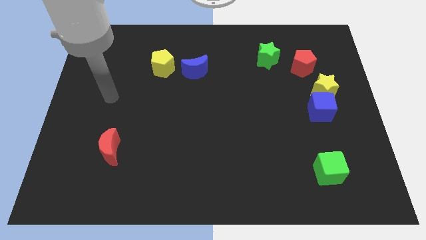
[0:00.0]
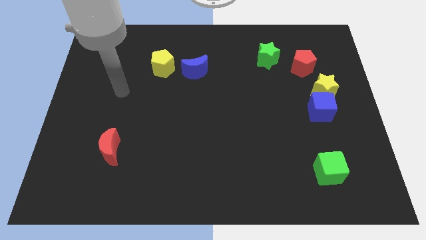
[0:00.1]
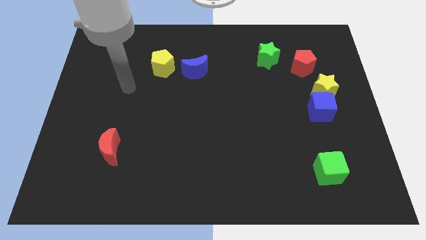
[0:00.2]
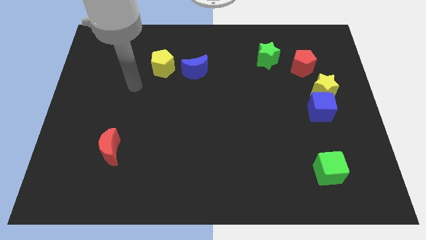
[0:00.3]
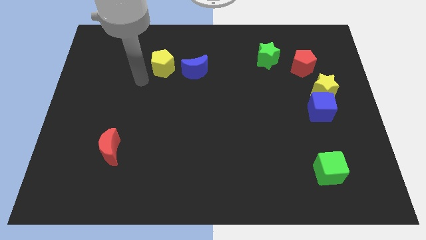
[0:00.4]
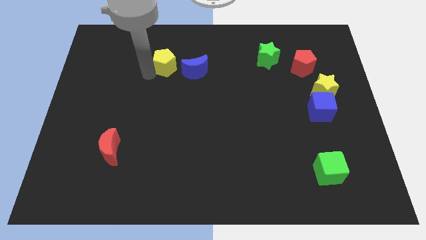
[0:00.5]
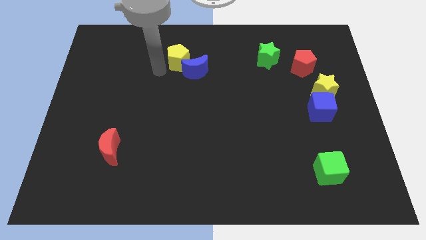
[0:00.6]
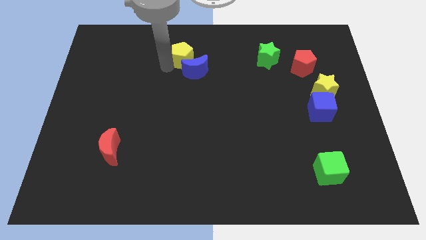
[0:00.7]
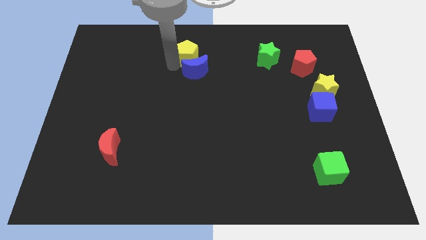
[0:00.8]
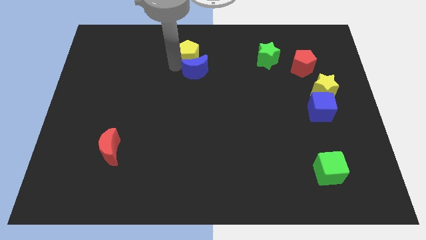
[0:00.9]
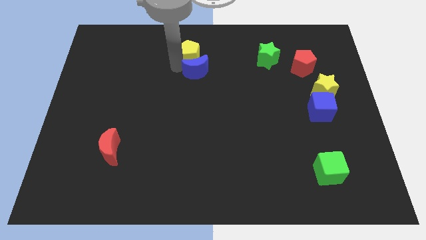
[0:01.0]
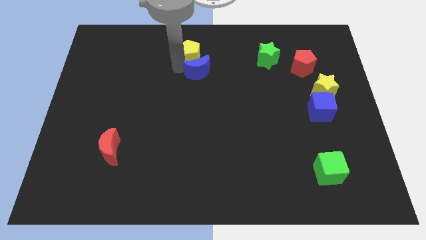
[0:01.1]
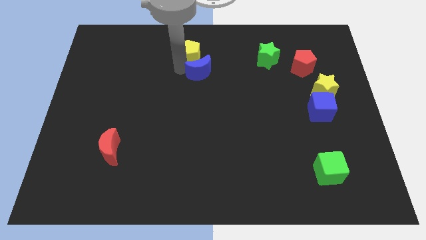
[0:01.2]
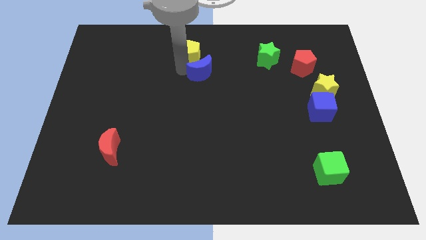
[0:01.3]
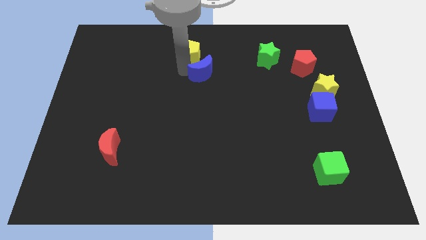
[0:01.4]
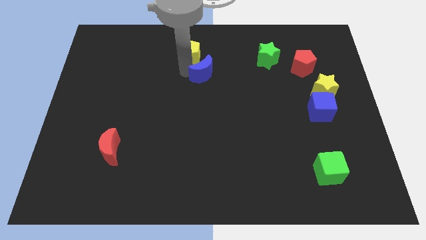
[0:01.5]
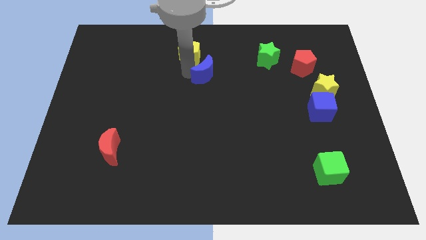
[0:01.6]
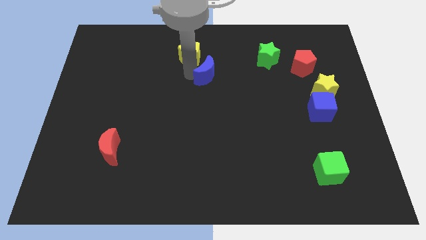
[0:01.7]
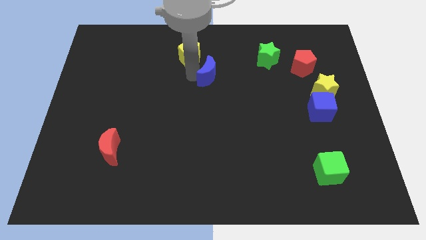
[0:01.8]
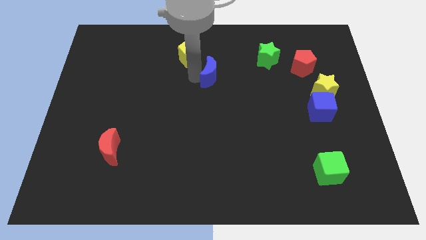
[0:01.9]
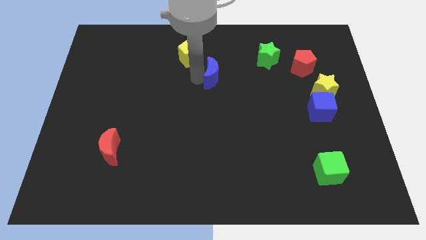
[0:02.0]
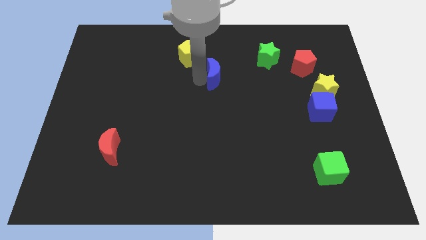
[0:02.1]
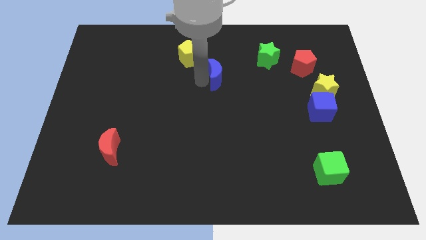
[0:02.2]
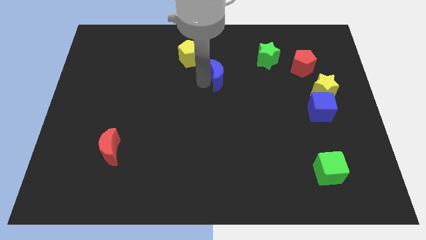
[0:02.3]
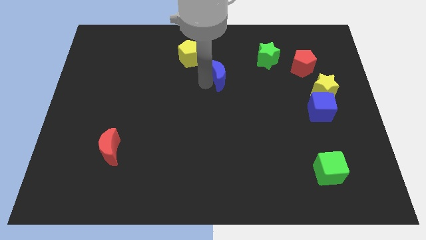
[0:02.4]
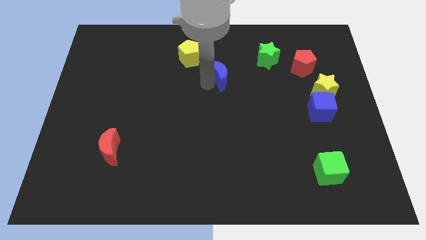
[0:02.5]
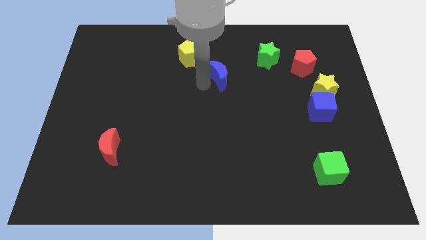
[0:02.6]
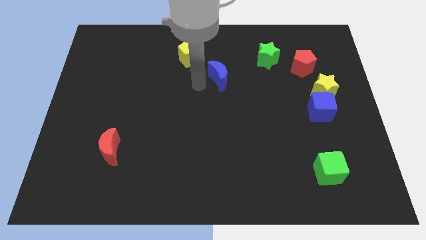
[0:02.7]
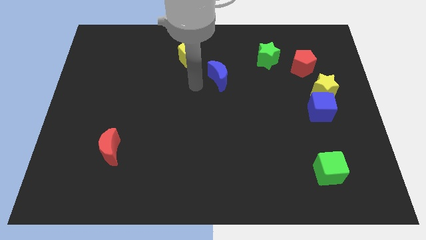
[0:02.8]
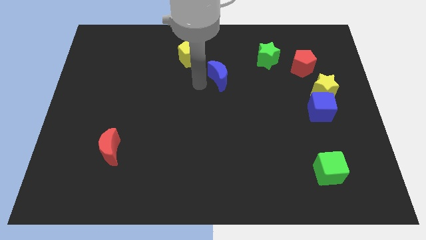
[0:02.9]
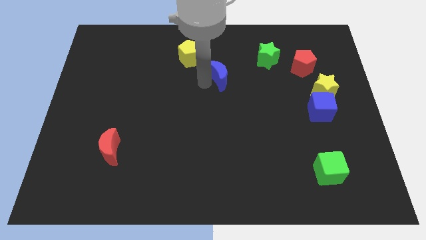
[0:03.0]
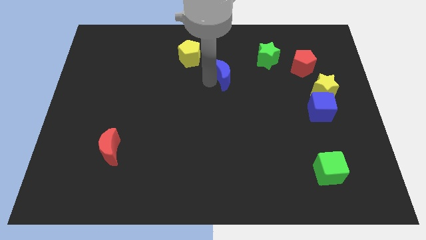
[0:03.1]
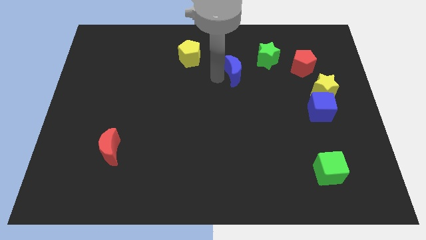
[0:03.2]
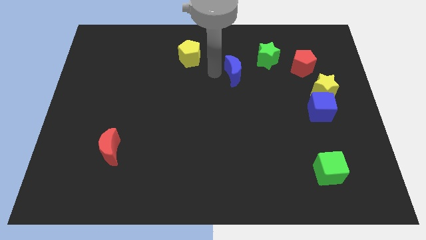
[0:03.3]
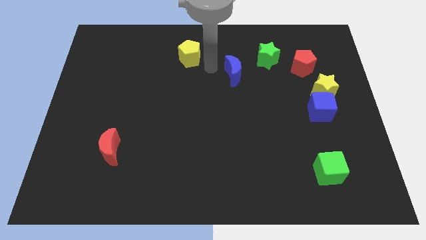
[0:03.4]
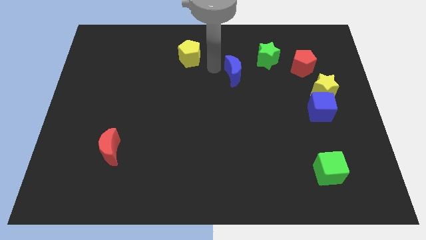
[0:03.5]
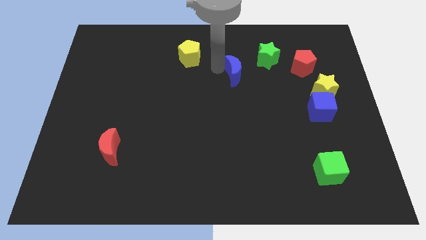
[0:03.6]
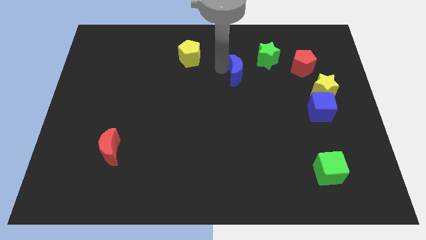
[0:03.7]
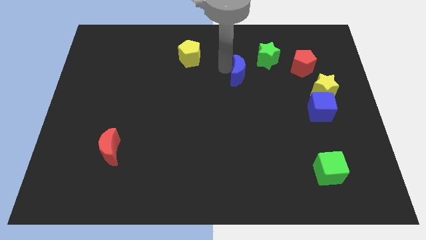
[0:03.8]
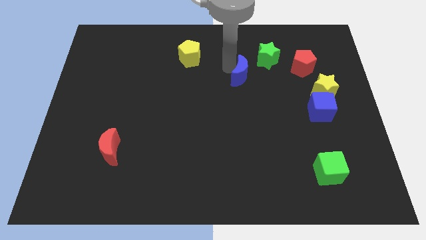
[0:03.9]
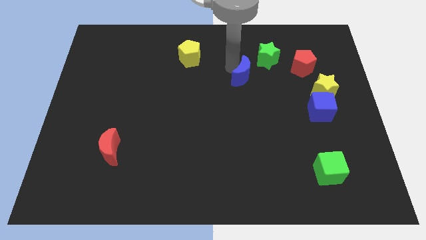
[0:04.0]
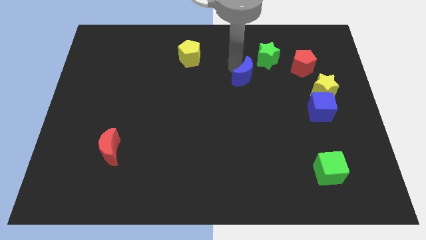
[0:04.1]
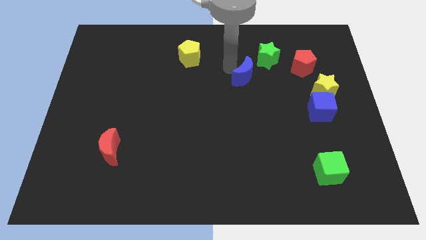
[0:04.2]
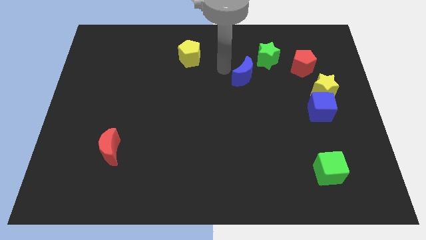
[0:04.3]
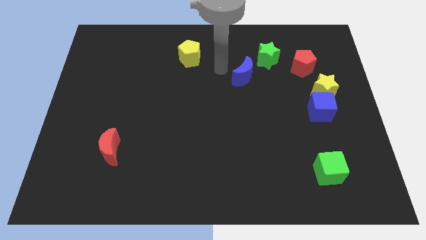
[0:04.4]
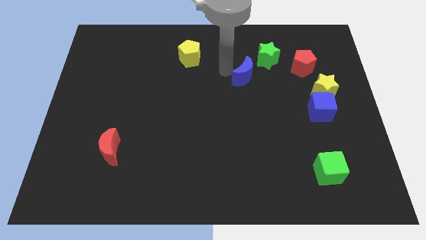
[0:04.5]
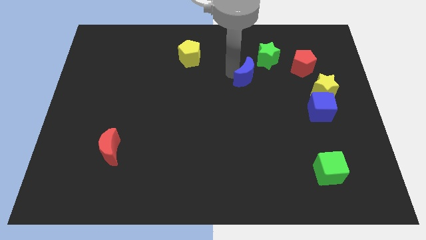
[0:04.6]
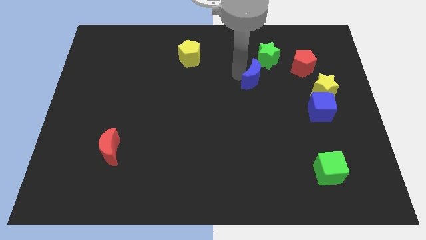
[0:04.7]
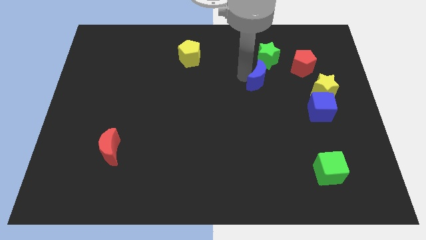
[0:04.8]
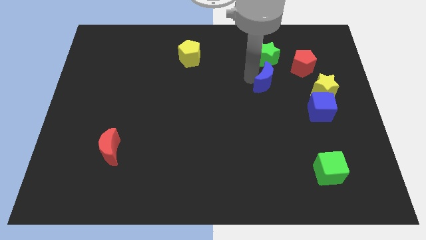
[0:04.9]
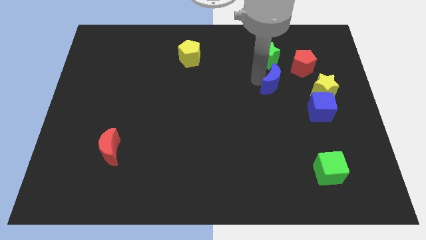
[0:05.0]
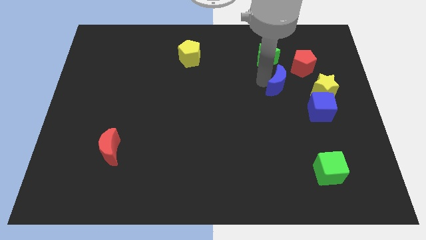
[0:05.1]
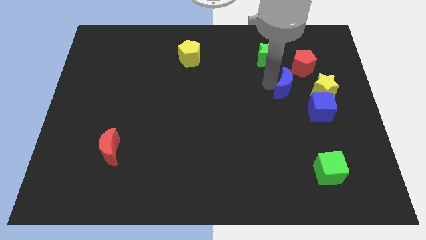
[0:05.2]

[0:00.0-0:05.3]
push the blue moon right

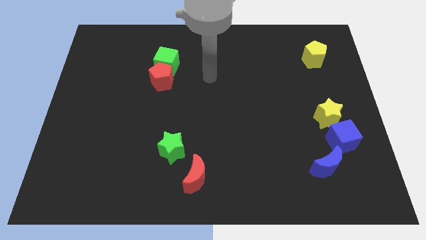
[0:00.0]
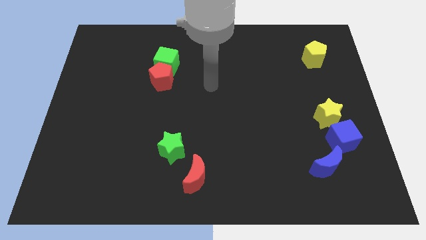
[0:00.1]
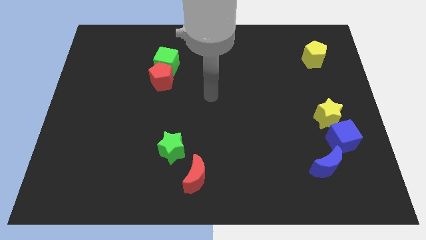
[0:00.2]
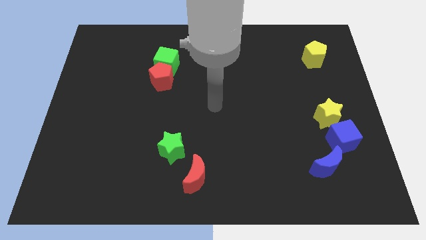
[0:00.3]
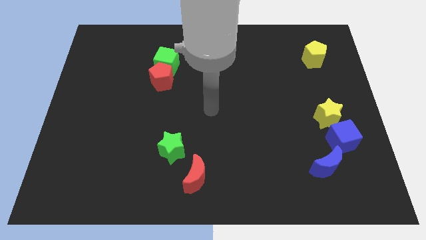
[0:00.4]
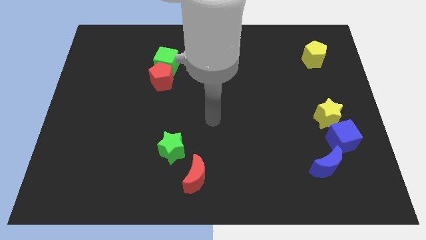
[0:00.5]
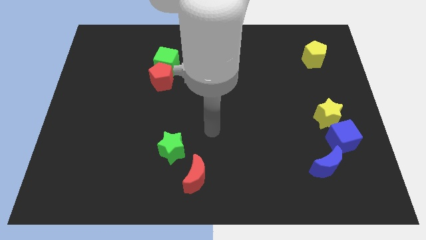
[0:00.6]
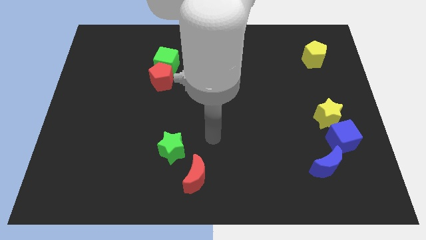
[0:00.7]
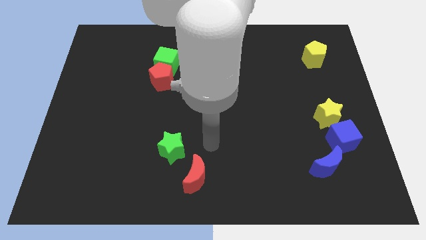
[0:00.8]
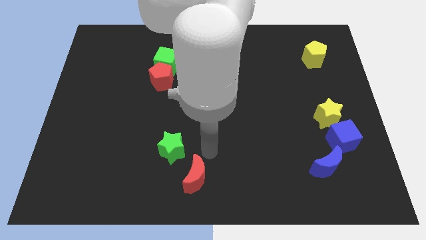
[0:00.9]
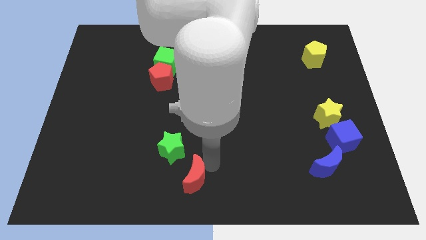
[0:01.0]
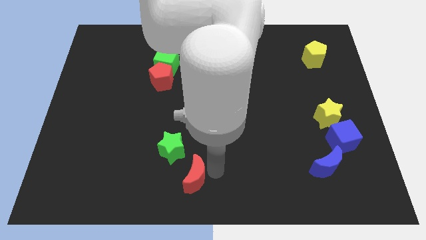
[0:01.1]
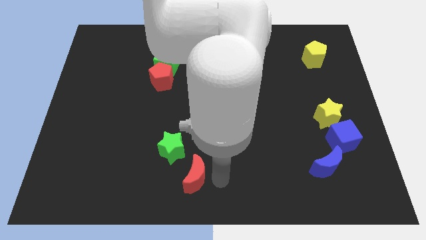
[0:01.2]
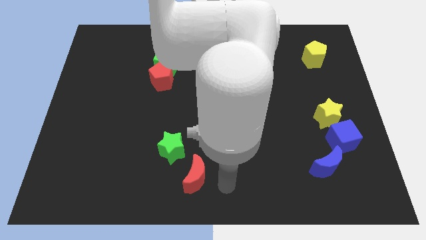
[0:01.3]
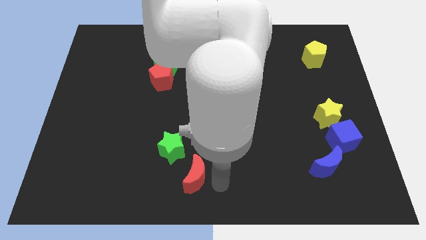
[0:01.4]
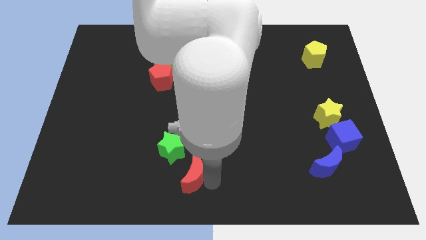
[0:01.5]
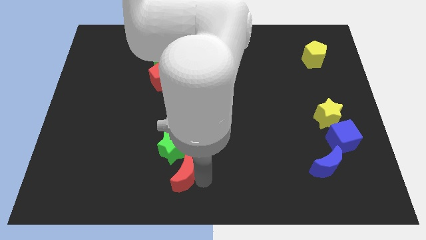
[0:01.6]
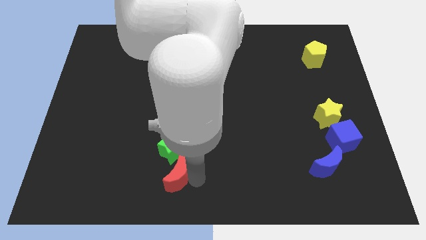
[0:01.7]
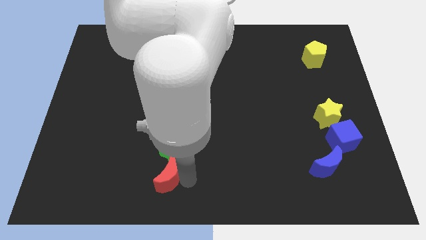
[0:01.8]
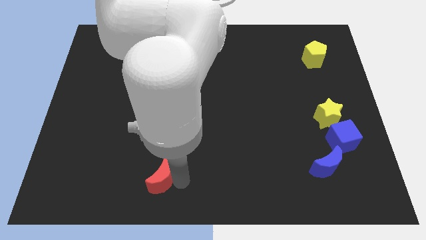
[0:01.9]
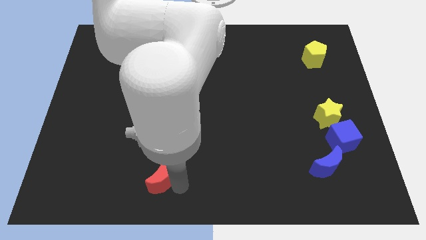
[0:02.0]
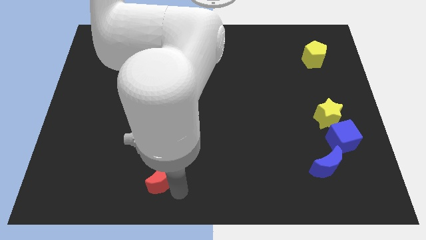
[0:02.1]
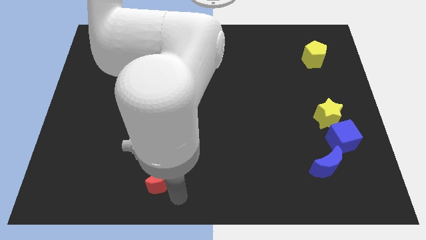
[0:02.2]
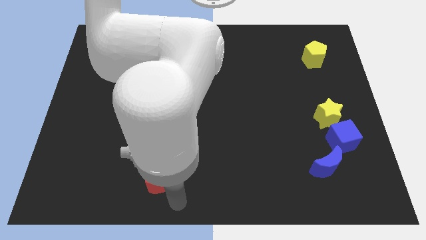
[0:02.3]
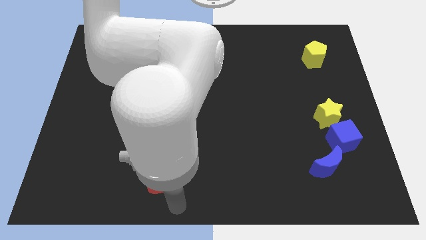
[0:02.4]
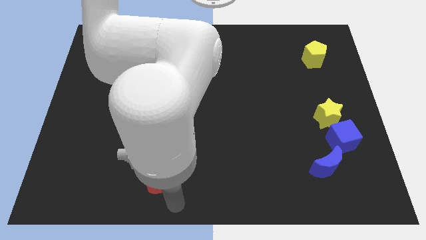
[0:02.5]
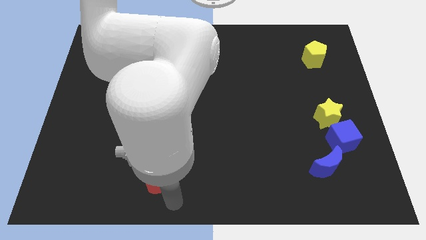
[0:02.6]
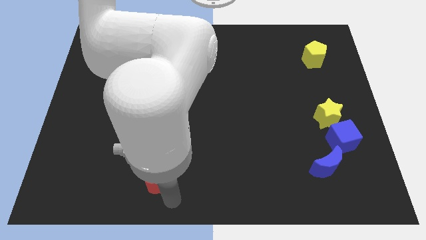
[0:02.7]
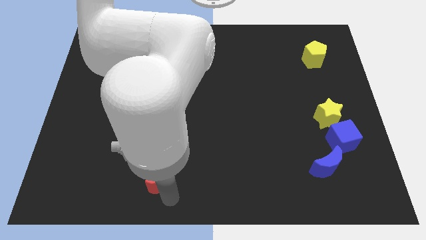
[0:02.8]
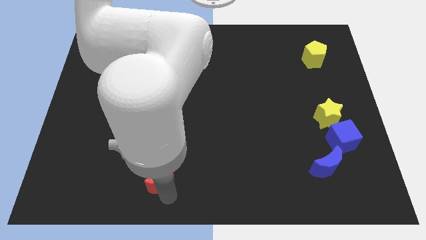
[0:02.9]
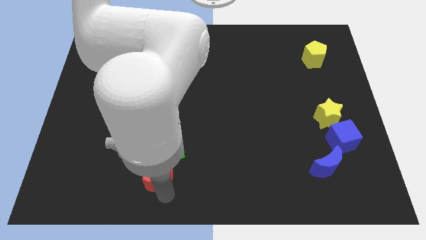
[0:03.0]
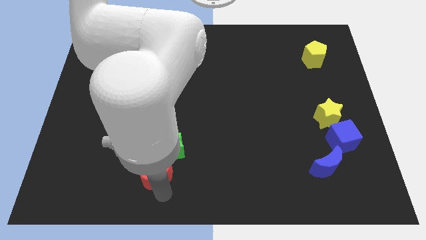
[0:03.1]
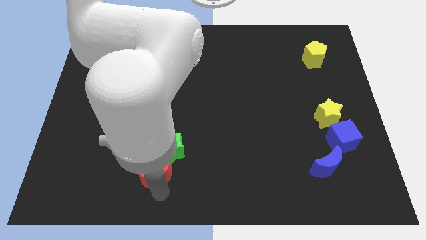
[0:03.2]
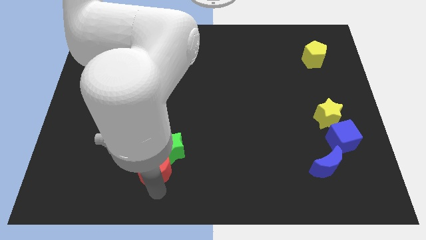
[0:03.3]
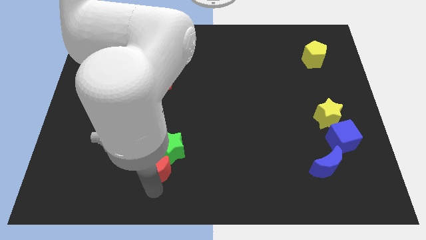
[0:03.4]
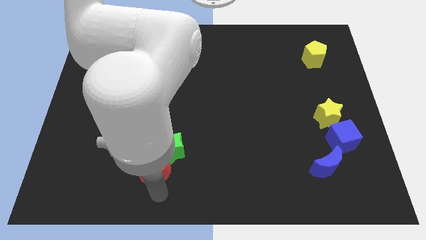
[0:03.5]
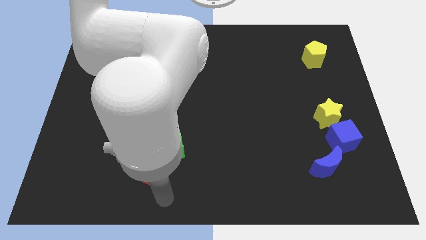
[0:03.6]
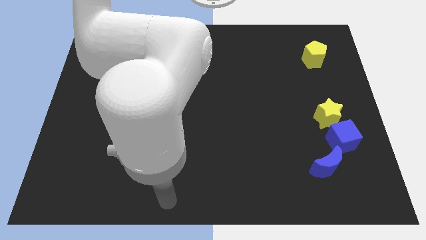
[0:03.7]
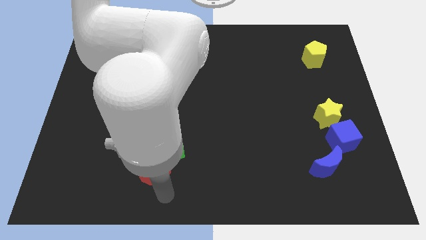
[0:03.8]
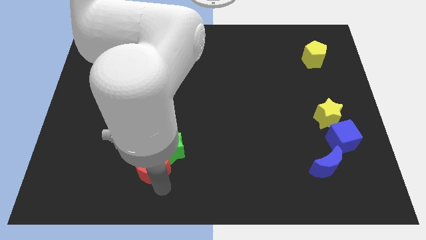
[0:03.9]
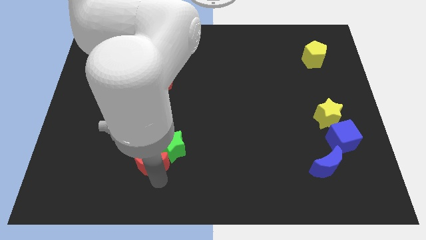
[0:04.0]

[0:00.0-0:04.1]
move the red moon somewhat up and to the left diagonally
